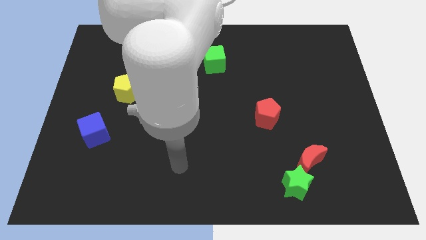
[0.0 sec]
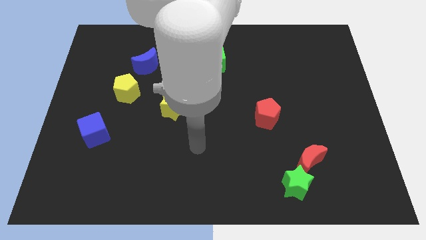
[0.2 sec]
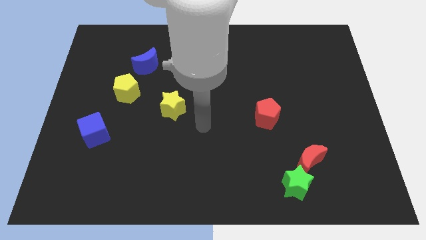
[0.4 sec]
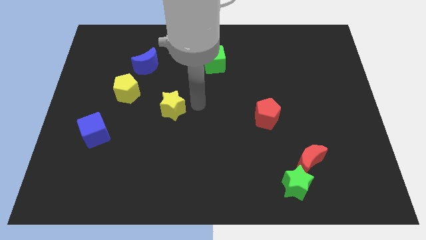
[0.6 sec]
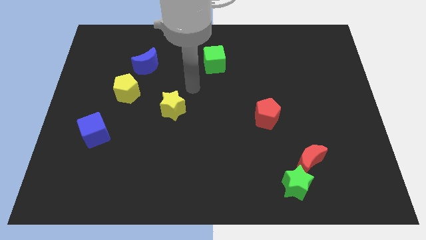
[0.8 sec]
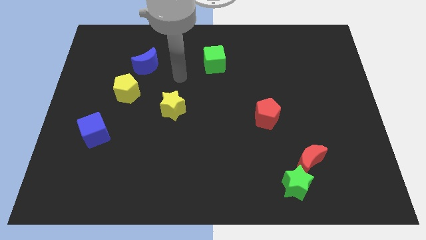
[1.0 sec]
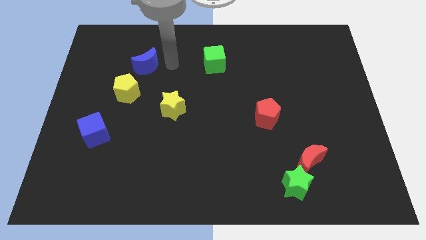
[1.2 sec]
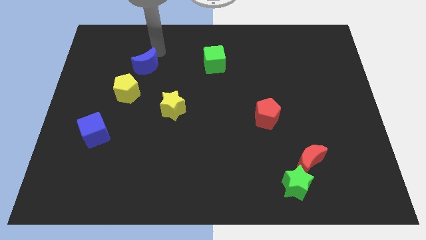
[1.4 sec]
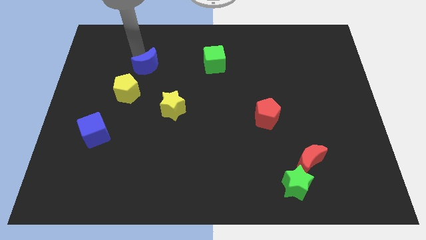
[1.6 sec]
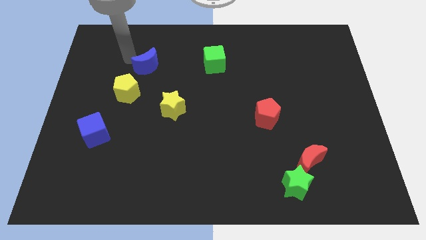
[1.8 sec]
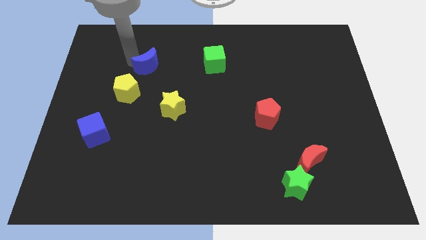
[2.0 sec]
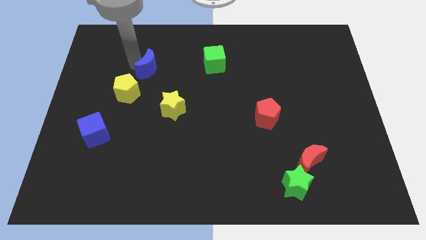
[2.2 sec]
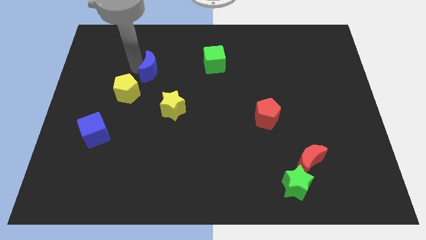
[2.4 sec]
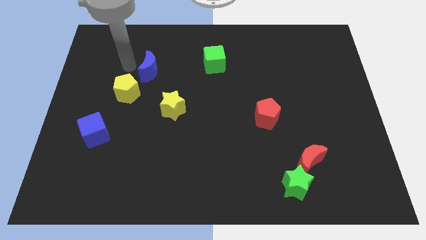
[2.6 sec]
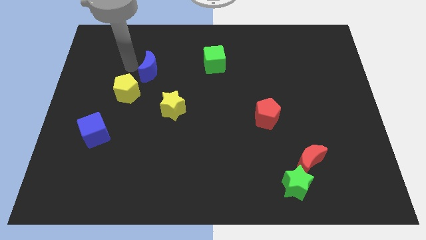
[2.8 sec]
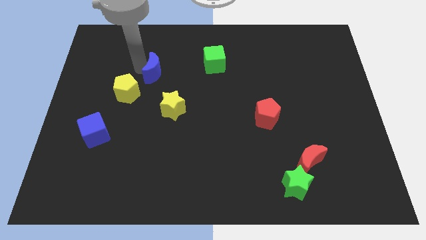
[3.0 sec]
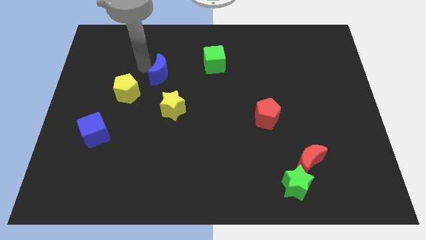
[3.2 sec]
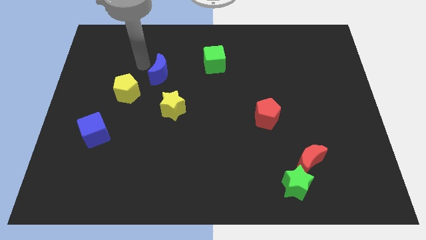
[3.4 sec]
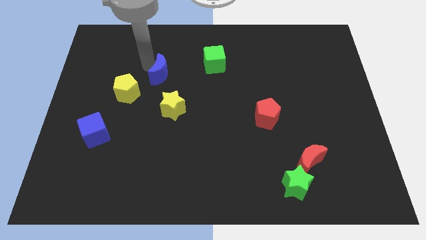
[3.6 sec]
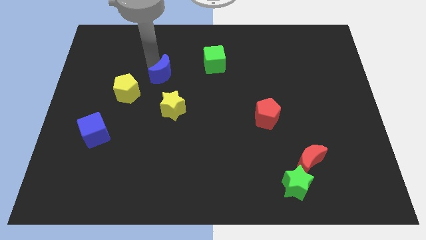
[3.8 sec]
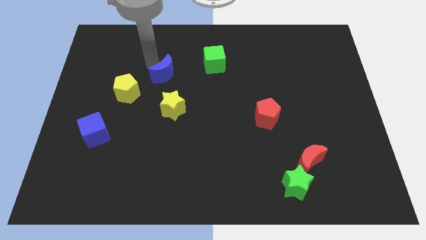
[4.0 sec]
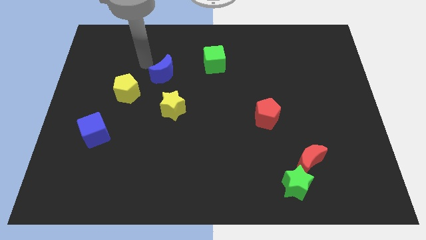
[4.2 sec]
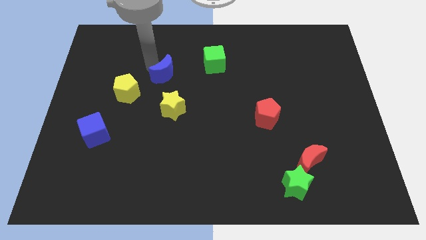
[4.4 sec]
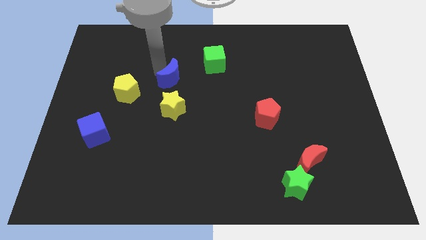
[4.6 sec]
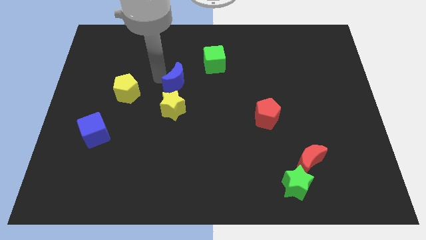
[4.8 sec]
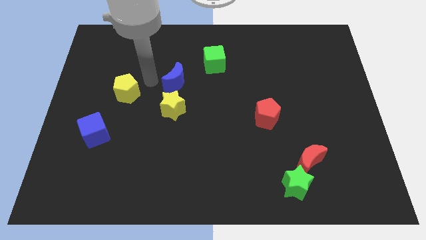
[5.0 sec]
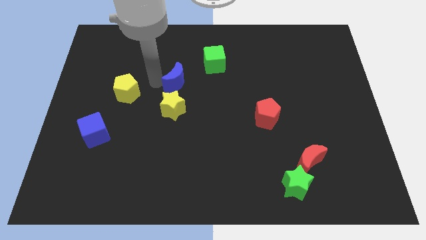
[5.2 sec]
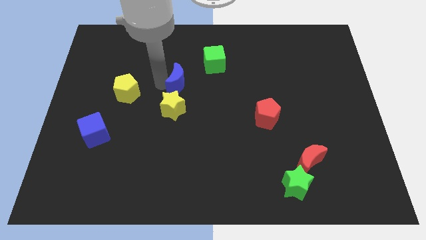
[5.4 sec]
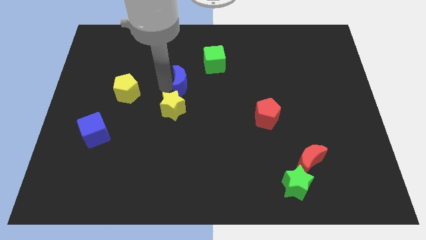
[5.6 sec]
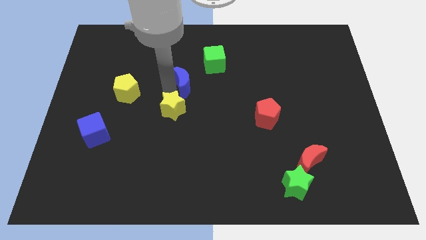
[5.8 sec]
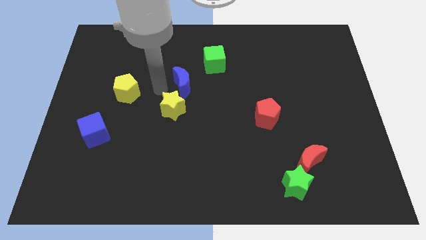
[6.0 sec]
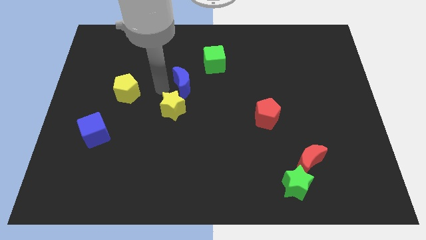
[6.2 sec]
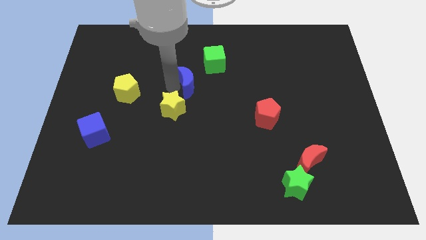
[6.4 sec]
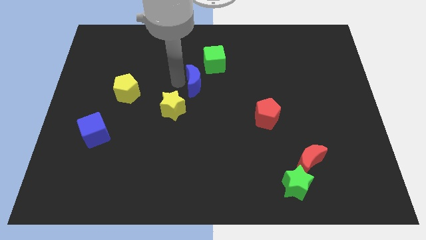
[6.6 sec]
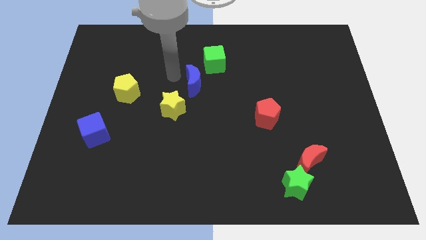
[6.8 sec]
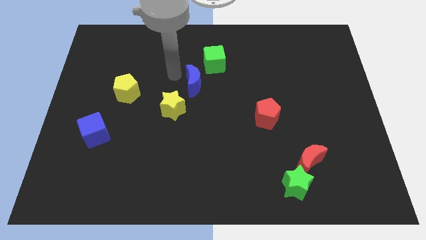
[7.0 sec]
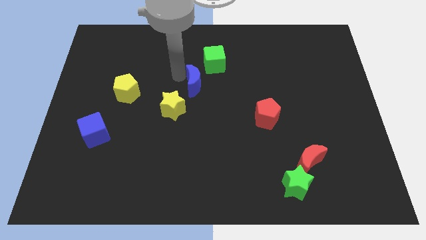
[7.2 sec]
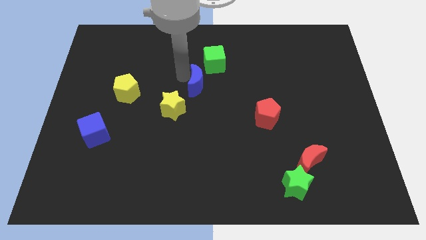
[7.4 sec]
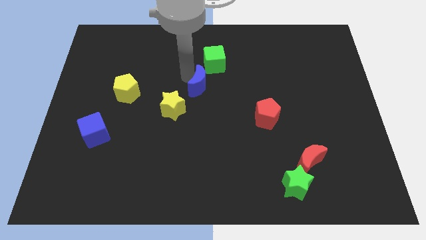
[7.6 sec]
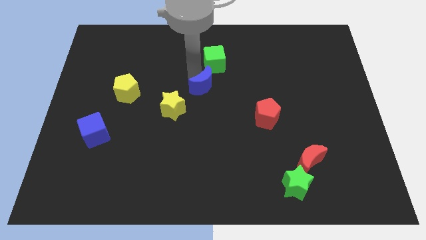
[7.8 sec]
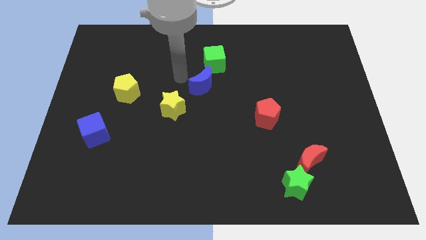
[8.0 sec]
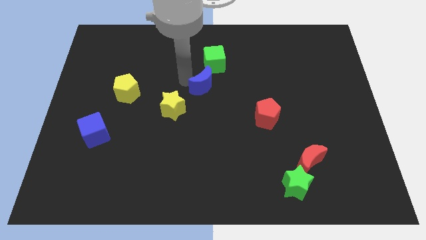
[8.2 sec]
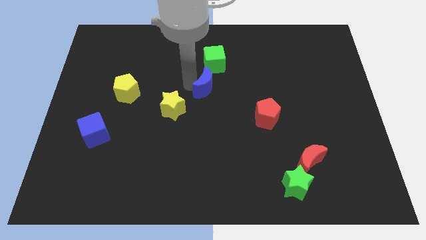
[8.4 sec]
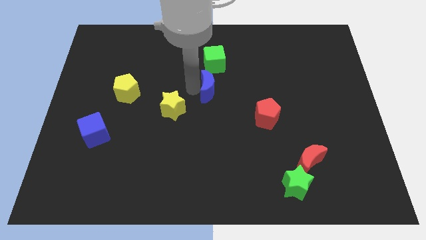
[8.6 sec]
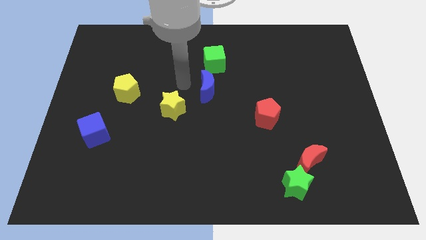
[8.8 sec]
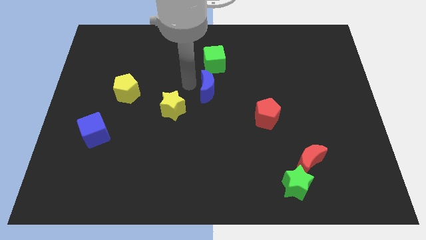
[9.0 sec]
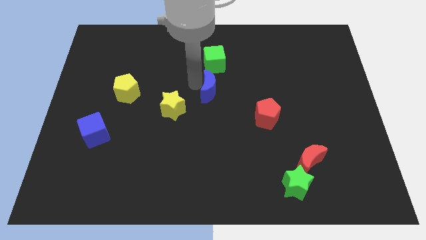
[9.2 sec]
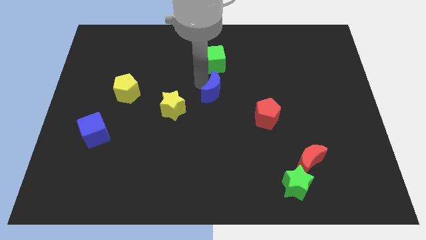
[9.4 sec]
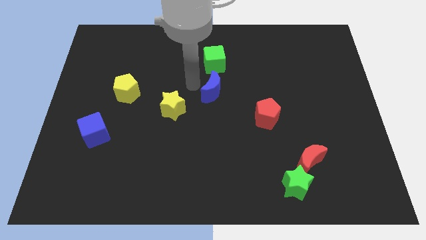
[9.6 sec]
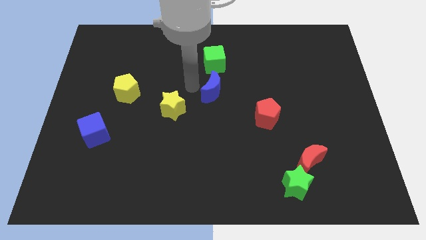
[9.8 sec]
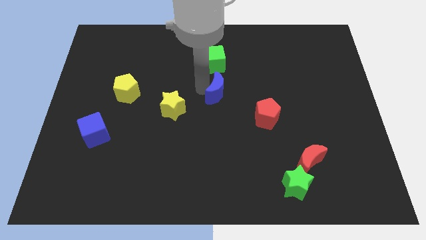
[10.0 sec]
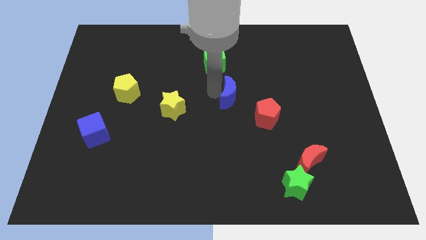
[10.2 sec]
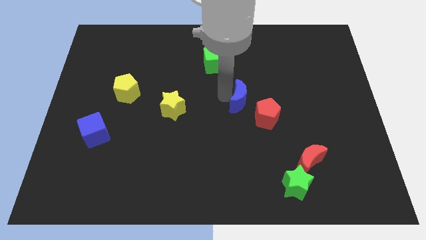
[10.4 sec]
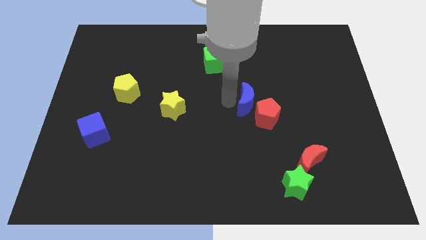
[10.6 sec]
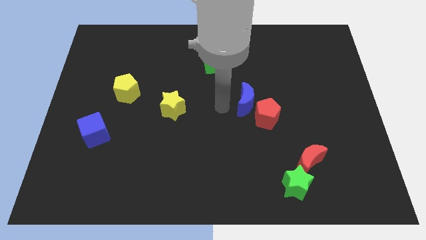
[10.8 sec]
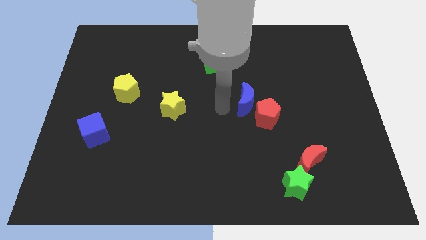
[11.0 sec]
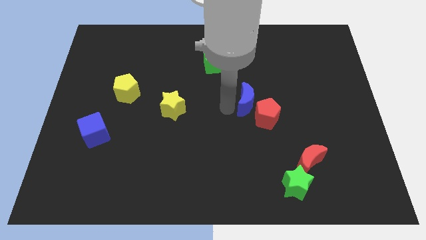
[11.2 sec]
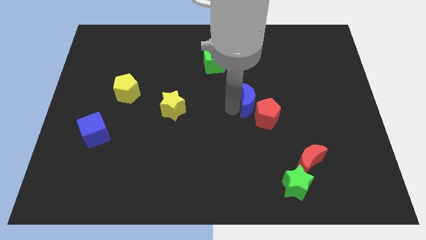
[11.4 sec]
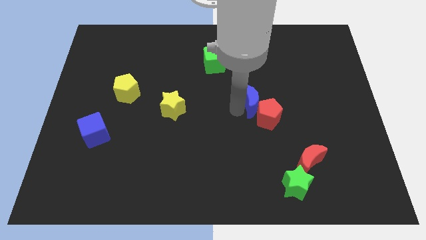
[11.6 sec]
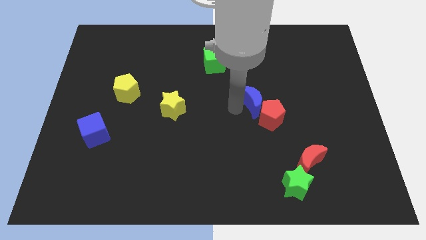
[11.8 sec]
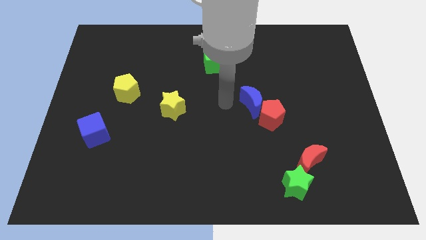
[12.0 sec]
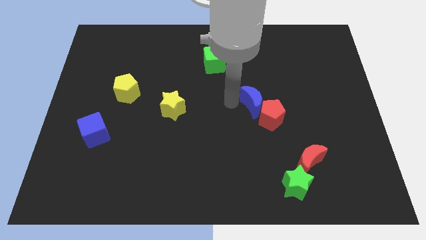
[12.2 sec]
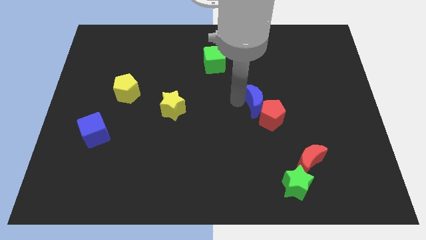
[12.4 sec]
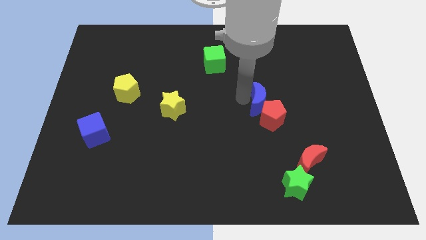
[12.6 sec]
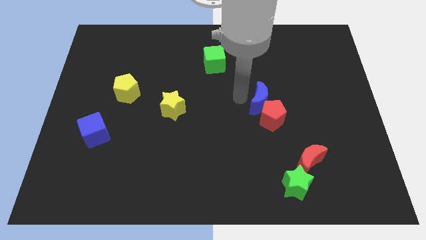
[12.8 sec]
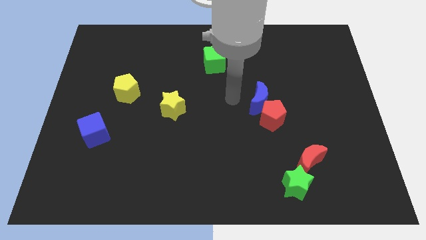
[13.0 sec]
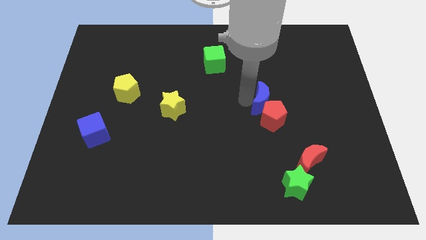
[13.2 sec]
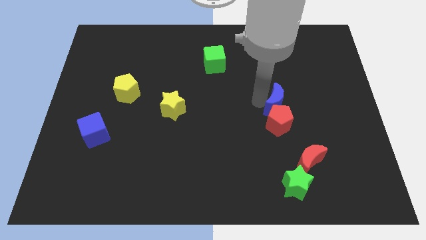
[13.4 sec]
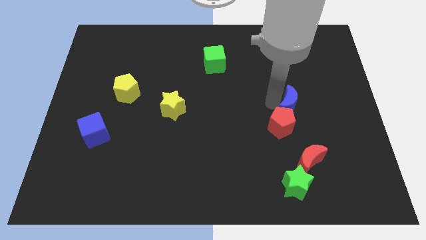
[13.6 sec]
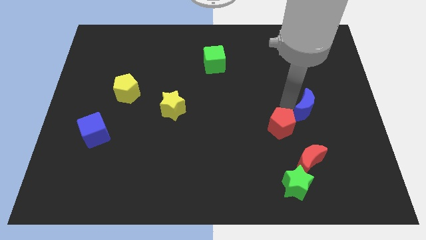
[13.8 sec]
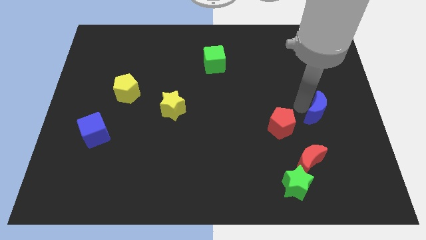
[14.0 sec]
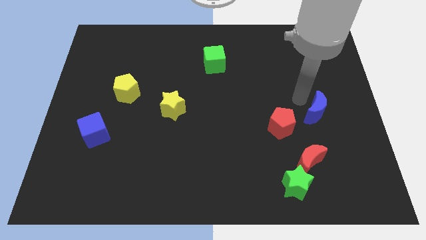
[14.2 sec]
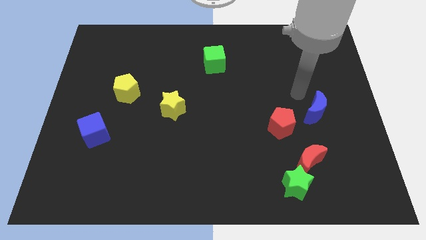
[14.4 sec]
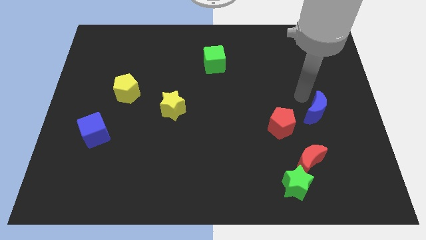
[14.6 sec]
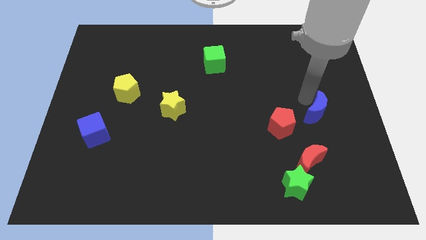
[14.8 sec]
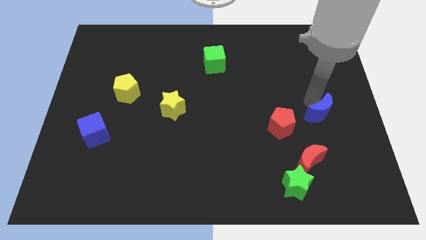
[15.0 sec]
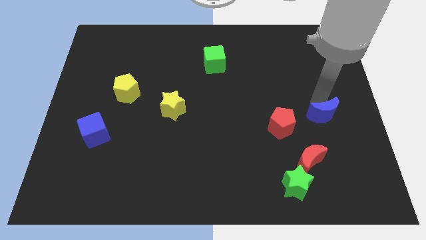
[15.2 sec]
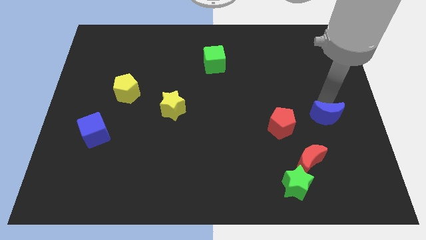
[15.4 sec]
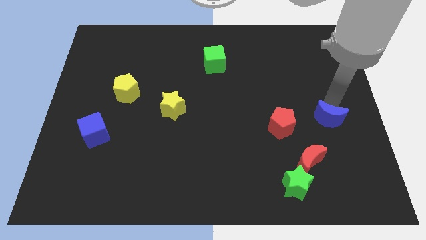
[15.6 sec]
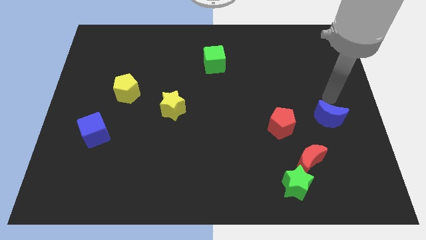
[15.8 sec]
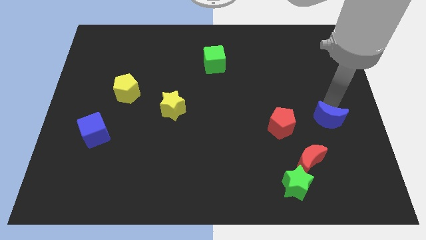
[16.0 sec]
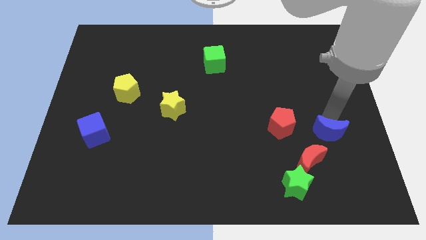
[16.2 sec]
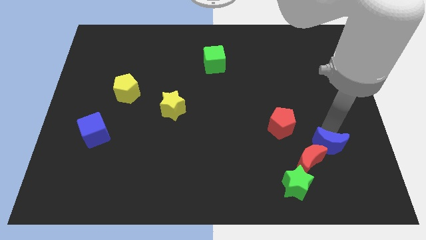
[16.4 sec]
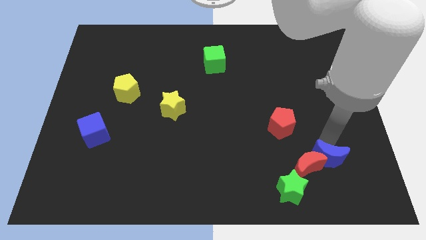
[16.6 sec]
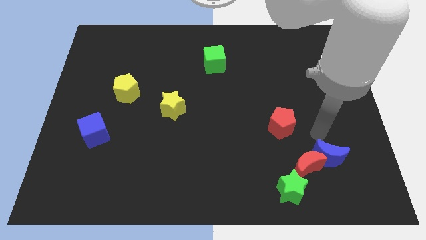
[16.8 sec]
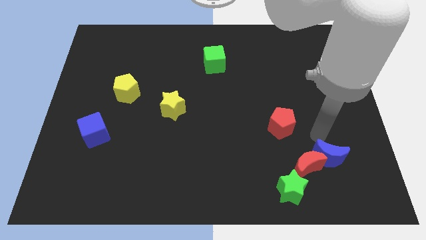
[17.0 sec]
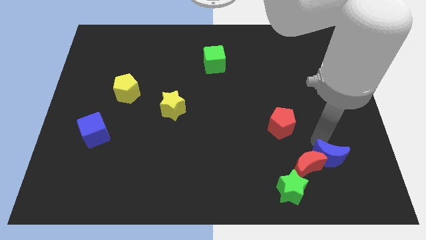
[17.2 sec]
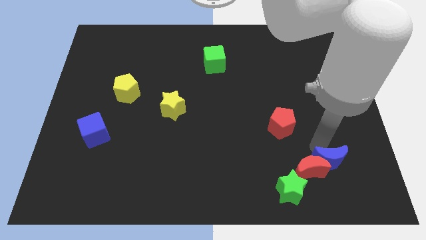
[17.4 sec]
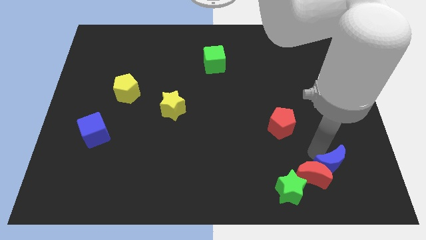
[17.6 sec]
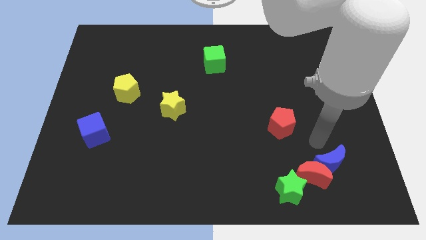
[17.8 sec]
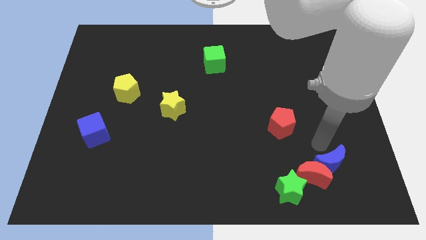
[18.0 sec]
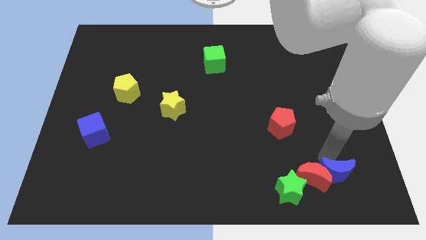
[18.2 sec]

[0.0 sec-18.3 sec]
move the blue moon to the right side of the green star
